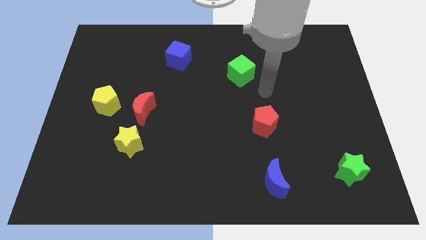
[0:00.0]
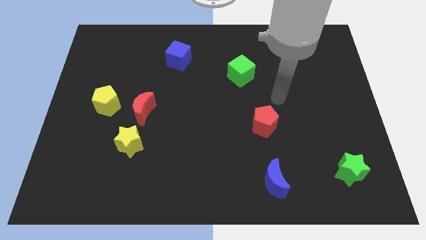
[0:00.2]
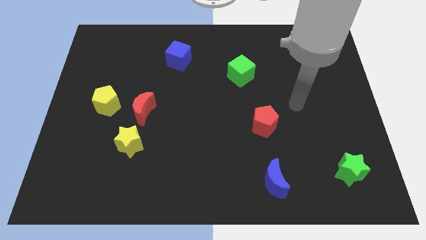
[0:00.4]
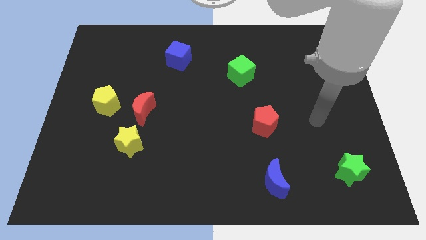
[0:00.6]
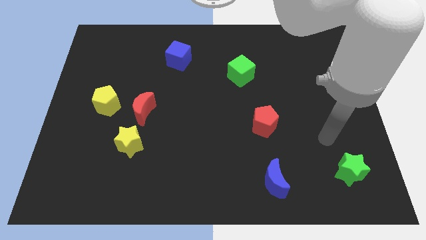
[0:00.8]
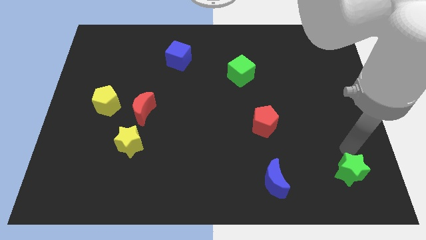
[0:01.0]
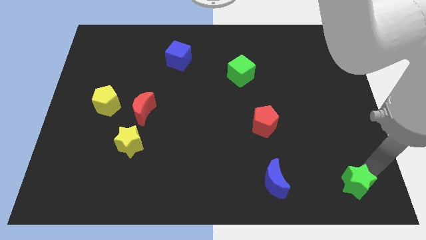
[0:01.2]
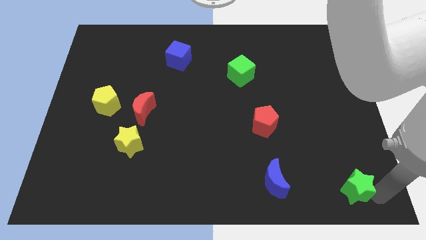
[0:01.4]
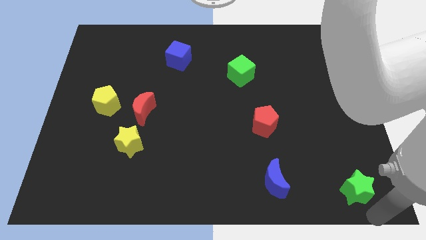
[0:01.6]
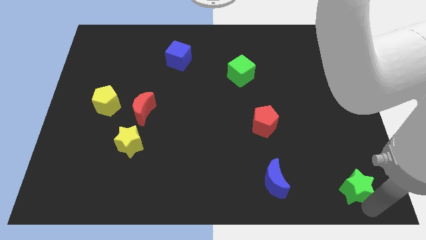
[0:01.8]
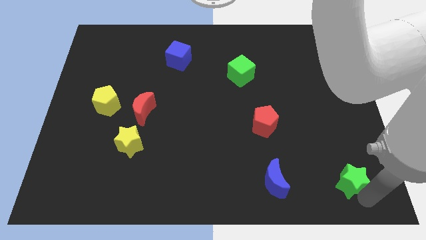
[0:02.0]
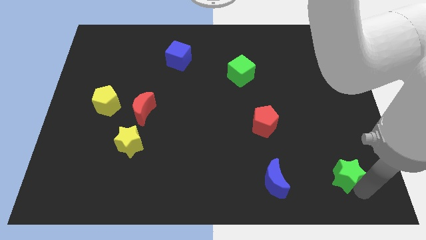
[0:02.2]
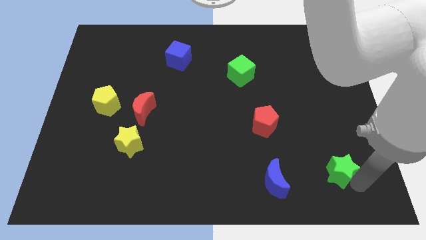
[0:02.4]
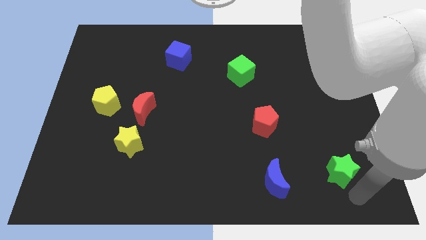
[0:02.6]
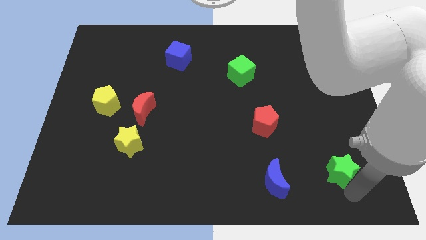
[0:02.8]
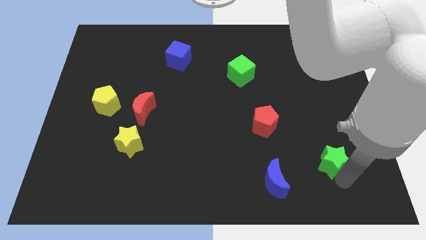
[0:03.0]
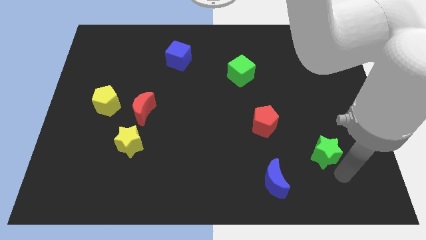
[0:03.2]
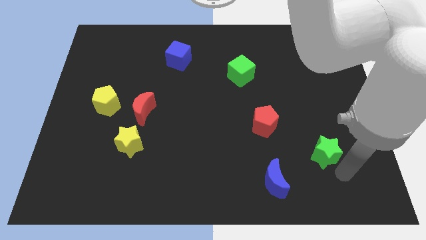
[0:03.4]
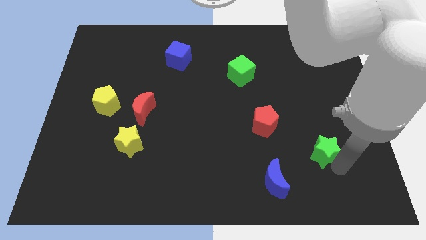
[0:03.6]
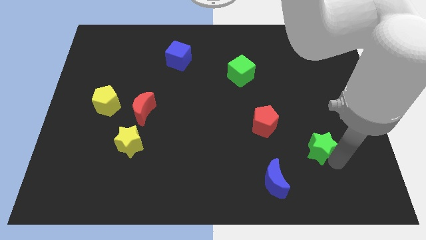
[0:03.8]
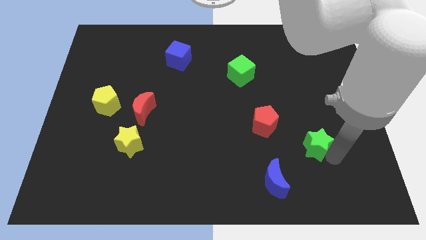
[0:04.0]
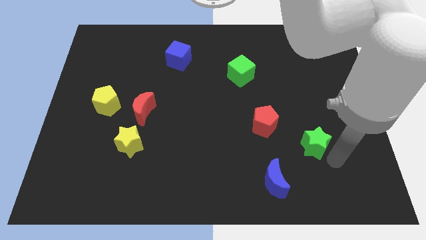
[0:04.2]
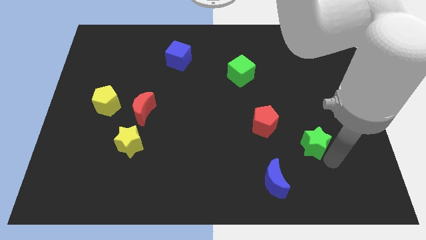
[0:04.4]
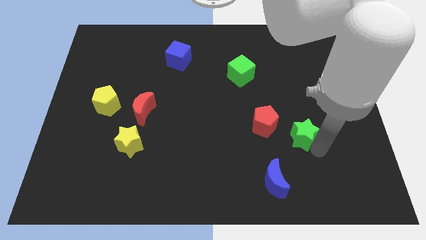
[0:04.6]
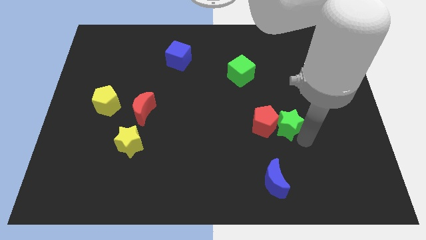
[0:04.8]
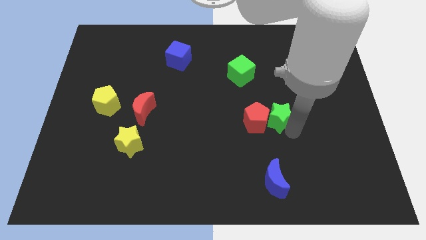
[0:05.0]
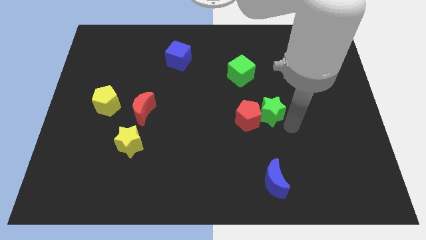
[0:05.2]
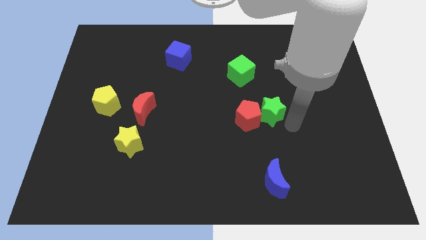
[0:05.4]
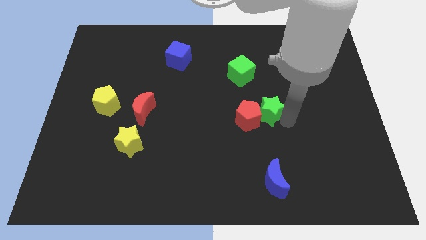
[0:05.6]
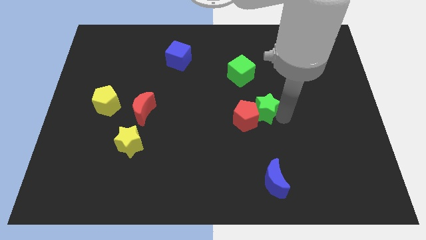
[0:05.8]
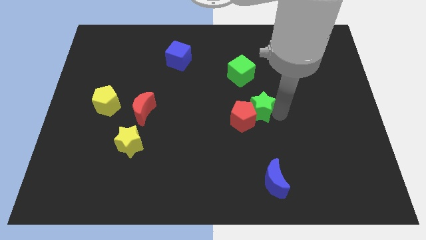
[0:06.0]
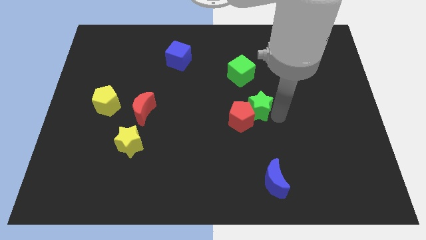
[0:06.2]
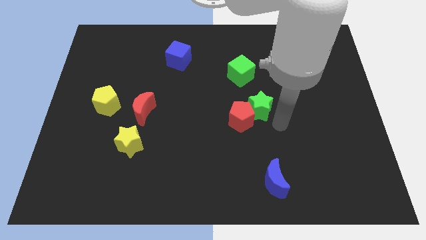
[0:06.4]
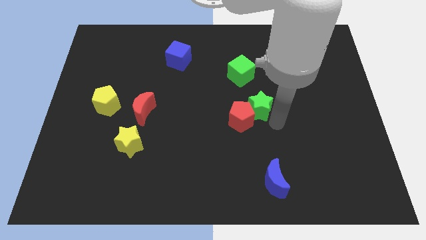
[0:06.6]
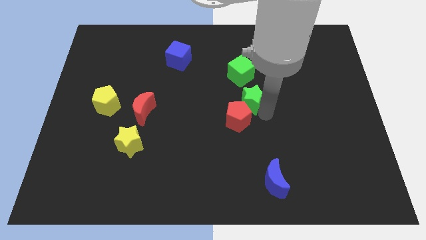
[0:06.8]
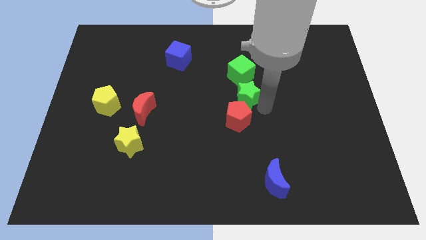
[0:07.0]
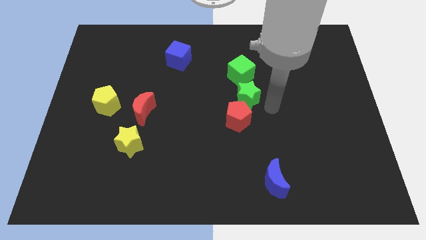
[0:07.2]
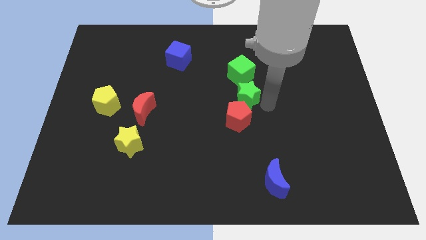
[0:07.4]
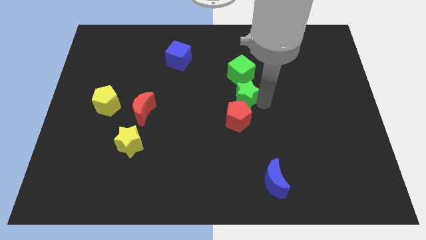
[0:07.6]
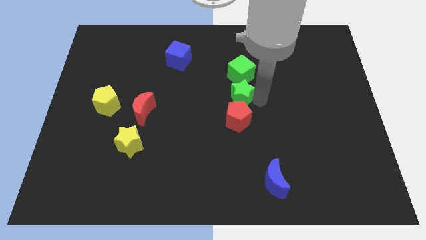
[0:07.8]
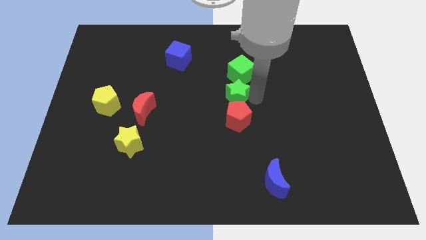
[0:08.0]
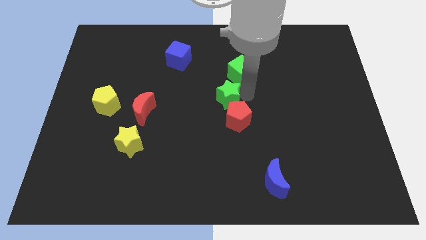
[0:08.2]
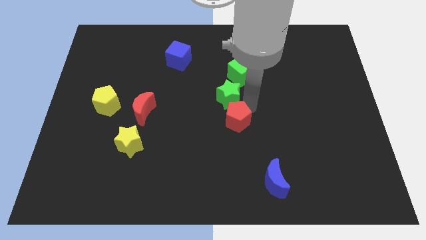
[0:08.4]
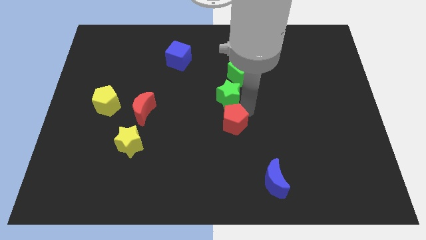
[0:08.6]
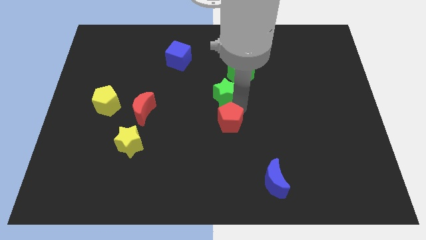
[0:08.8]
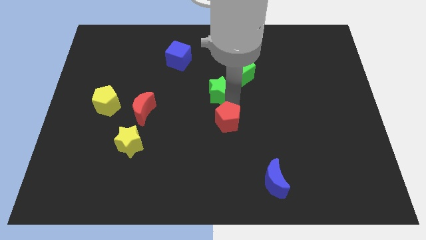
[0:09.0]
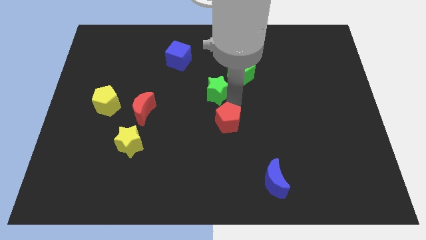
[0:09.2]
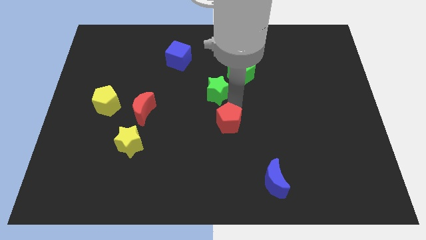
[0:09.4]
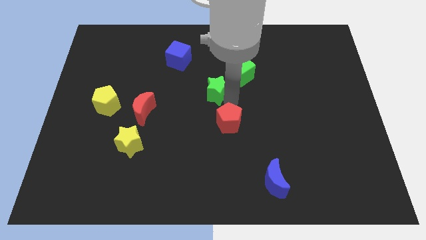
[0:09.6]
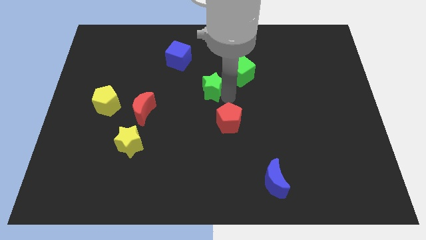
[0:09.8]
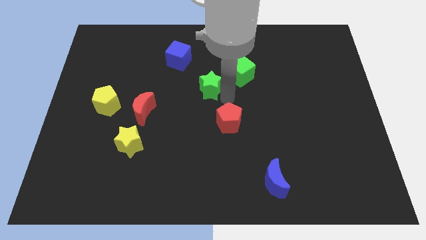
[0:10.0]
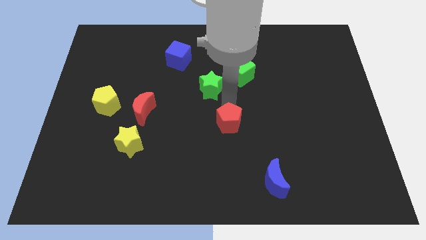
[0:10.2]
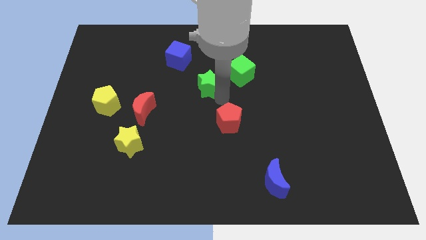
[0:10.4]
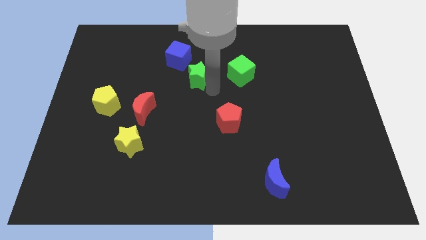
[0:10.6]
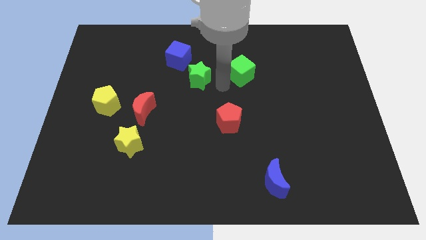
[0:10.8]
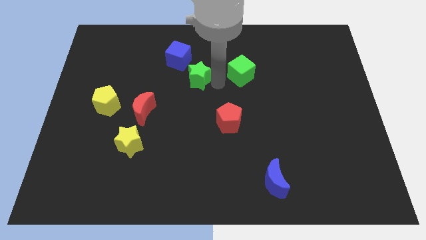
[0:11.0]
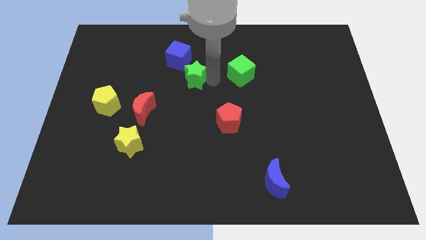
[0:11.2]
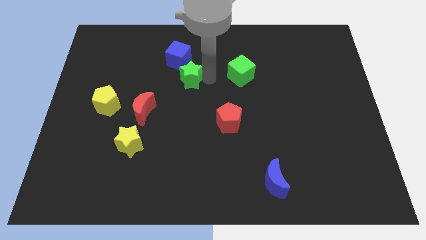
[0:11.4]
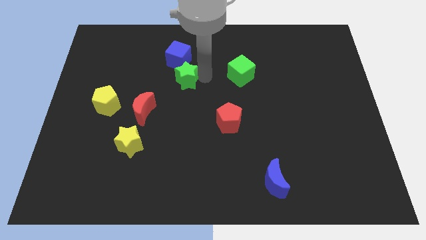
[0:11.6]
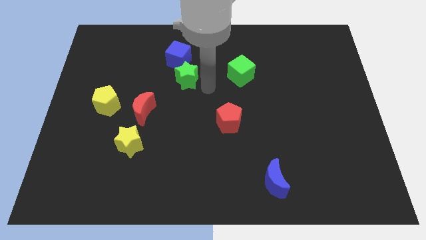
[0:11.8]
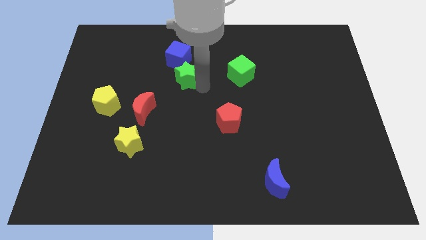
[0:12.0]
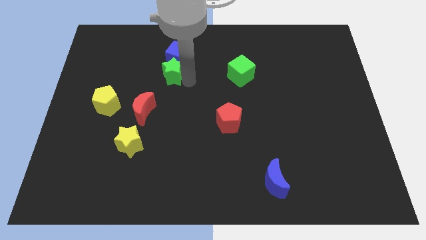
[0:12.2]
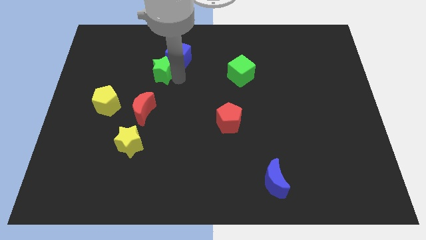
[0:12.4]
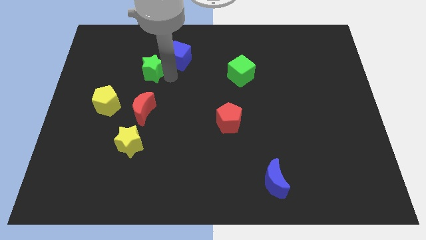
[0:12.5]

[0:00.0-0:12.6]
put the green star just left of the blue cube

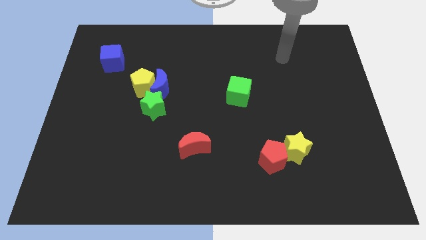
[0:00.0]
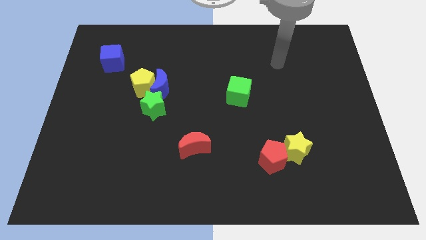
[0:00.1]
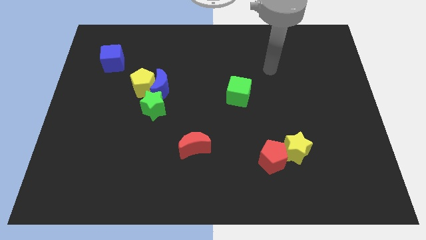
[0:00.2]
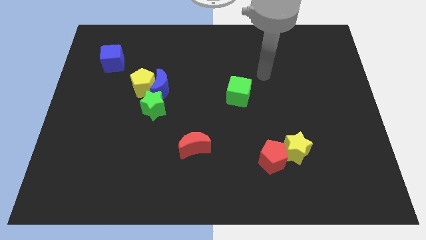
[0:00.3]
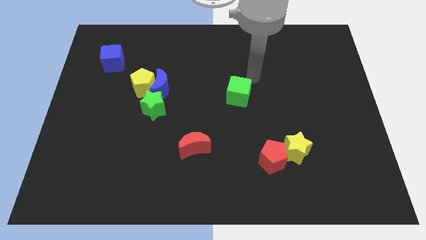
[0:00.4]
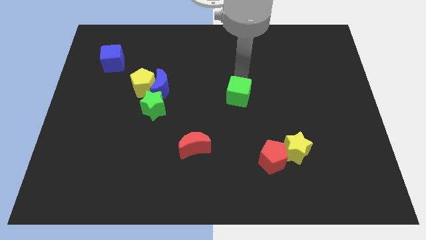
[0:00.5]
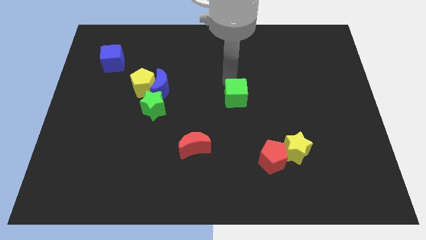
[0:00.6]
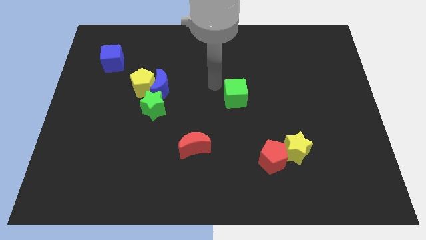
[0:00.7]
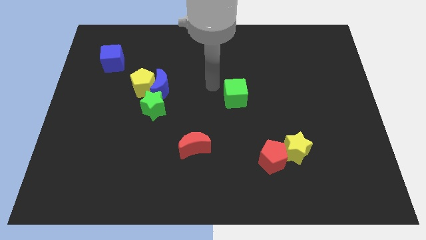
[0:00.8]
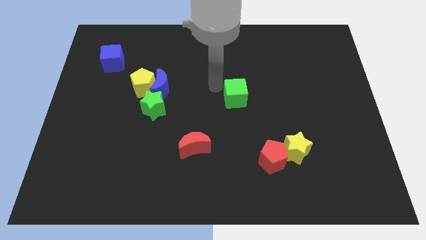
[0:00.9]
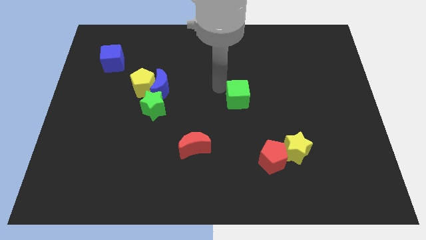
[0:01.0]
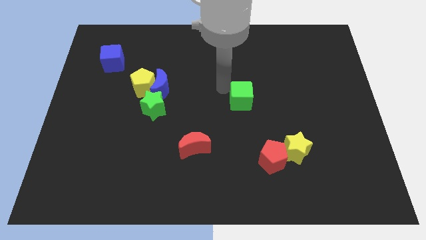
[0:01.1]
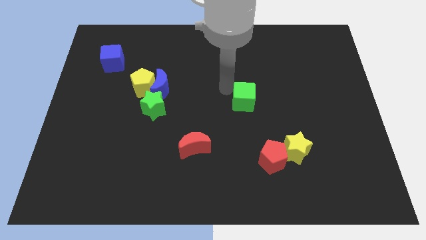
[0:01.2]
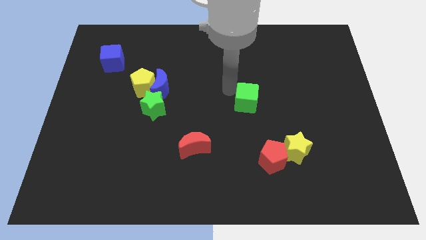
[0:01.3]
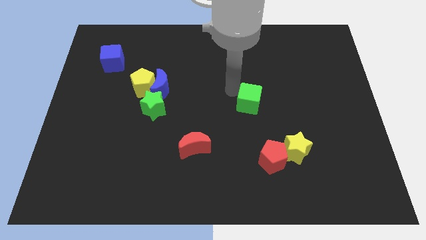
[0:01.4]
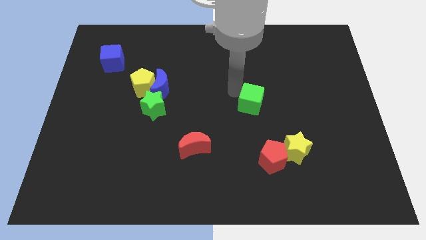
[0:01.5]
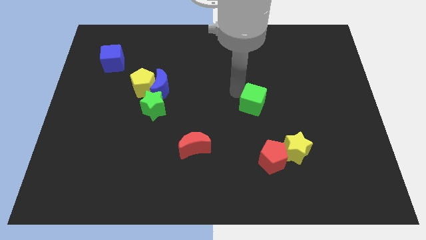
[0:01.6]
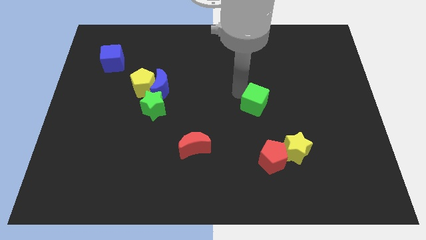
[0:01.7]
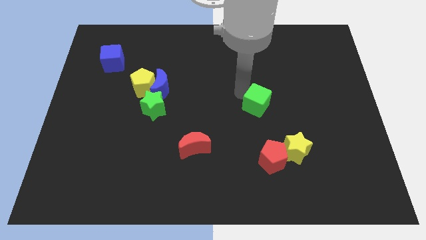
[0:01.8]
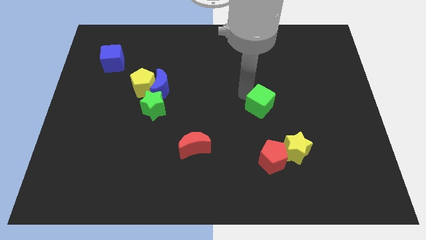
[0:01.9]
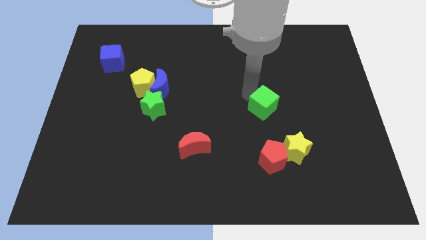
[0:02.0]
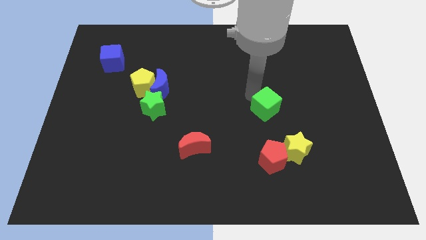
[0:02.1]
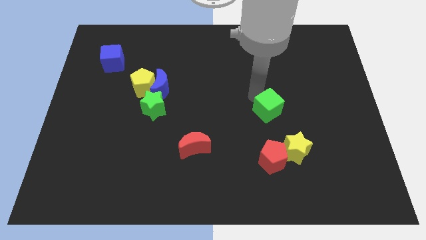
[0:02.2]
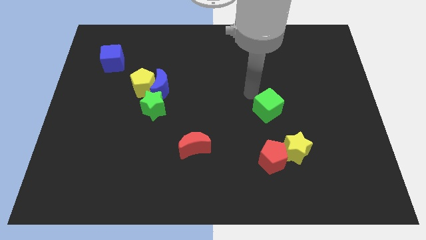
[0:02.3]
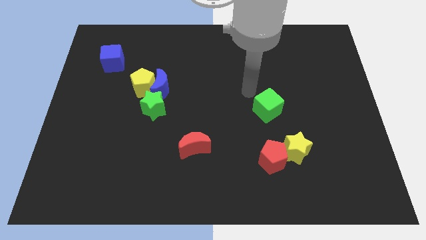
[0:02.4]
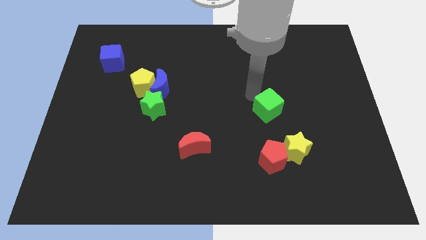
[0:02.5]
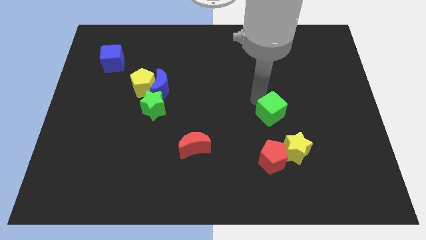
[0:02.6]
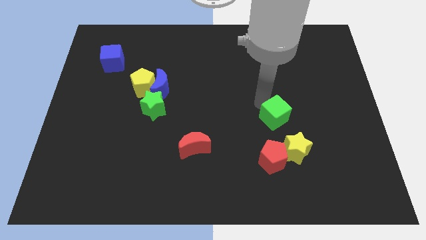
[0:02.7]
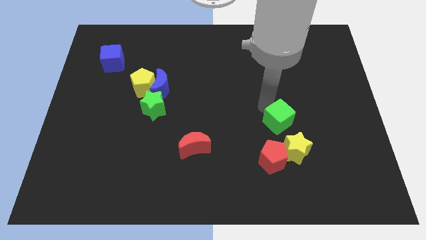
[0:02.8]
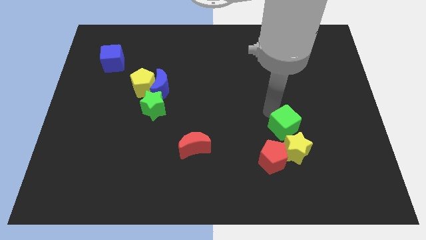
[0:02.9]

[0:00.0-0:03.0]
put the green cube to the top right of the red pentagon
